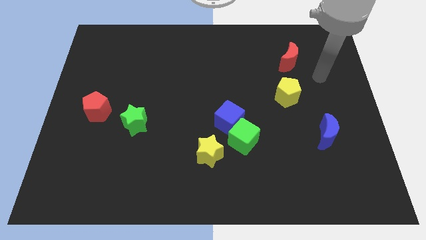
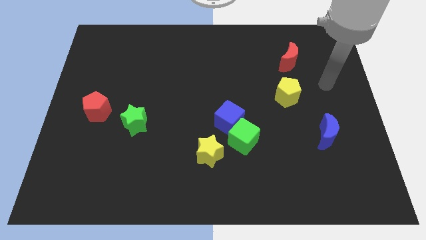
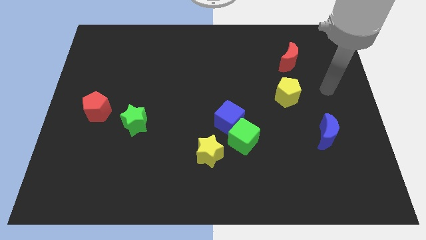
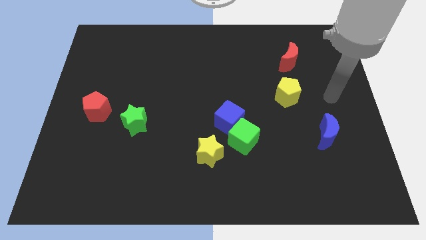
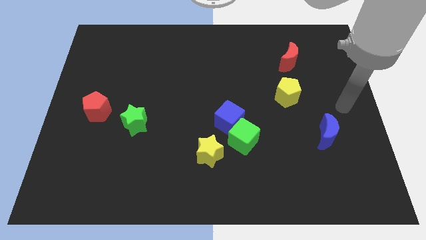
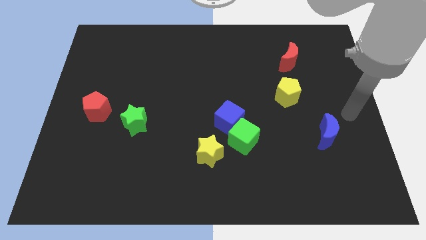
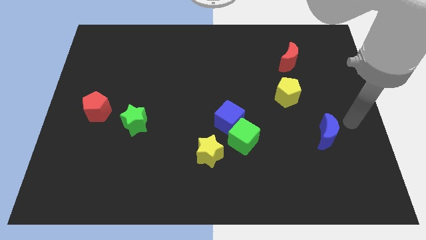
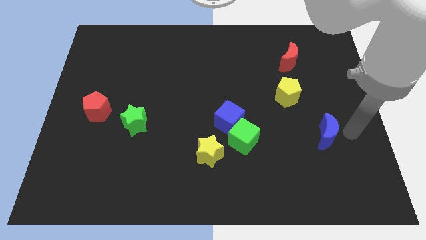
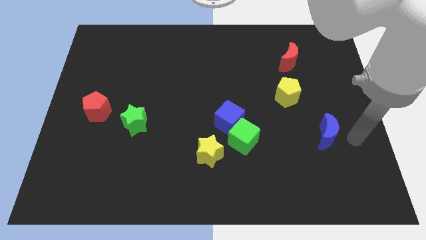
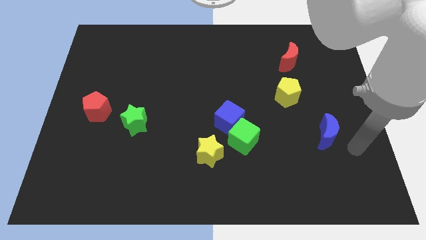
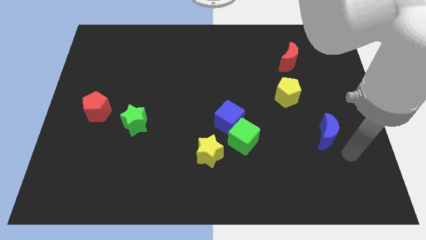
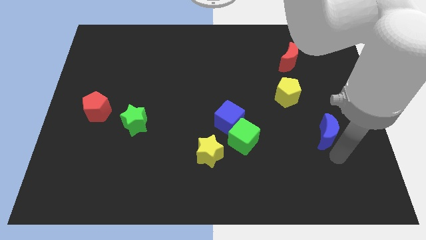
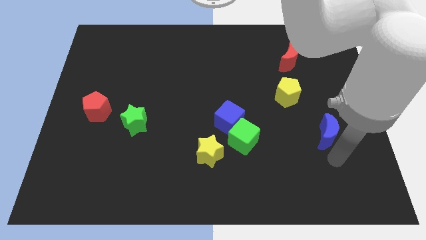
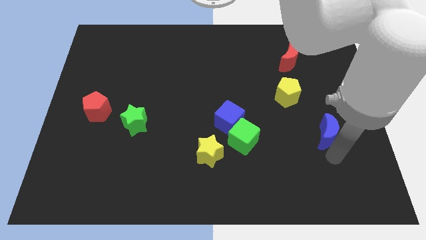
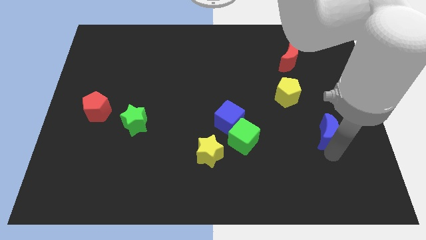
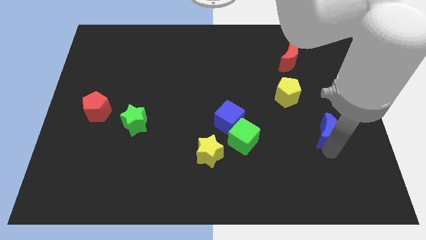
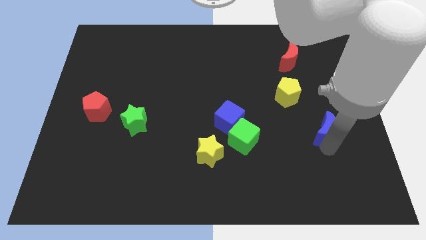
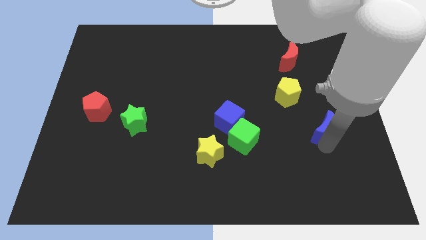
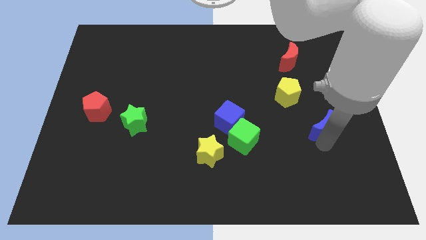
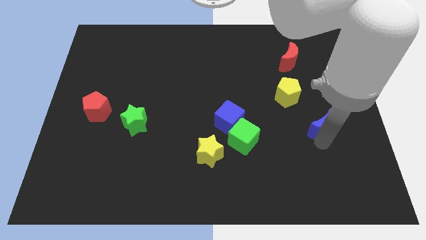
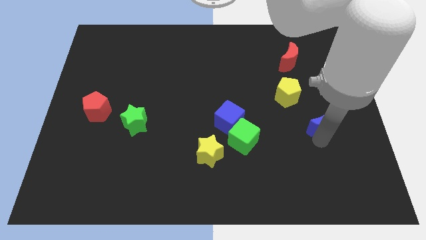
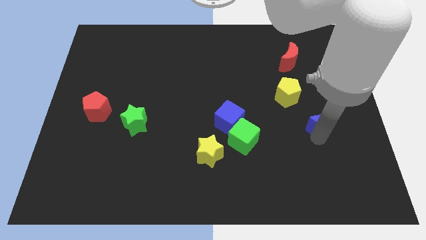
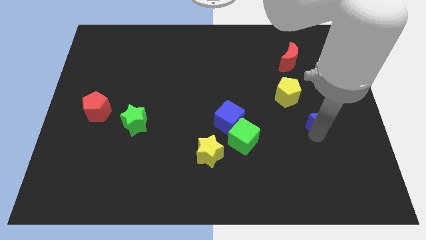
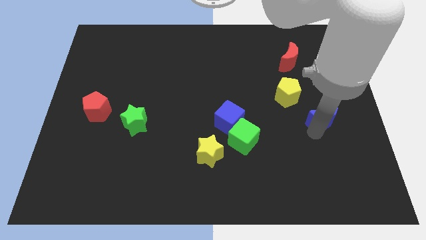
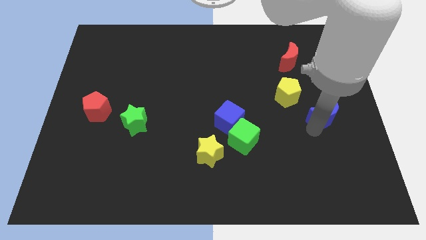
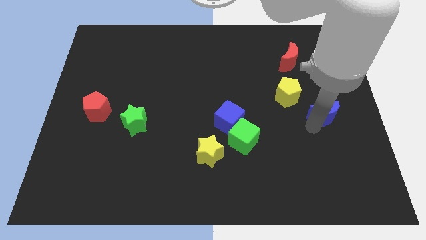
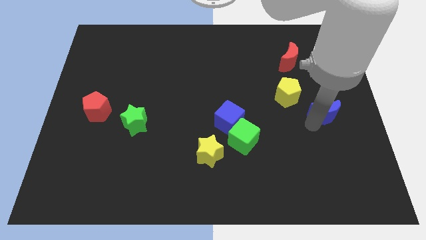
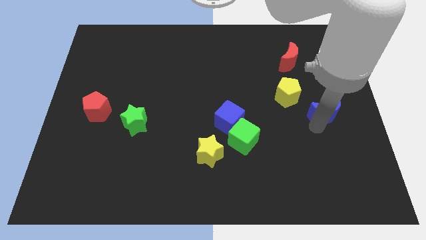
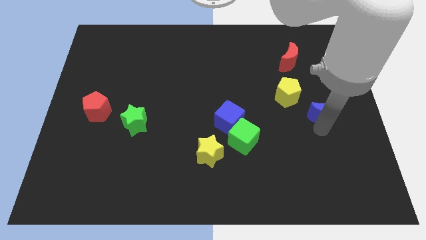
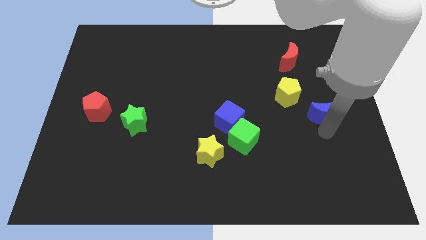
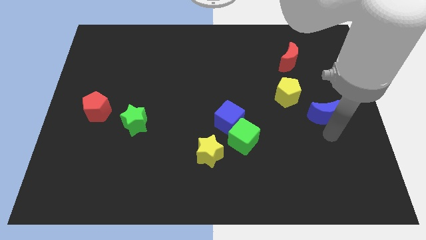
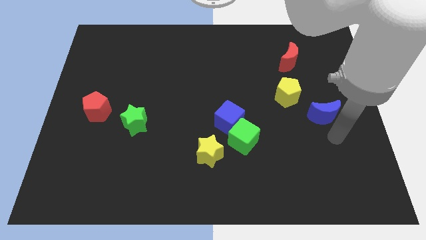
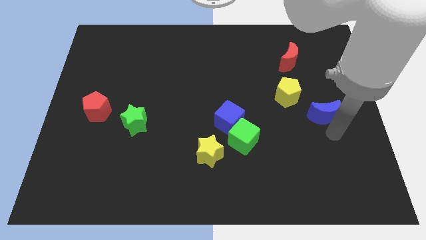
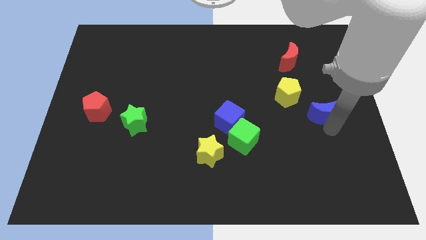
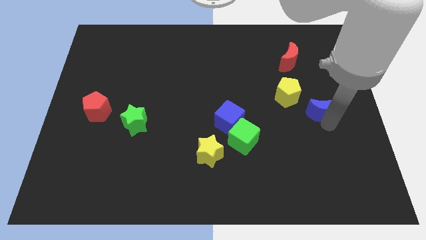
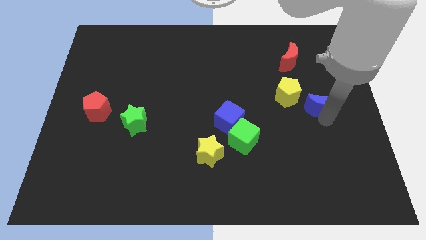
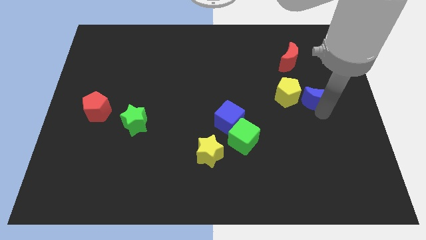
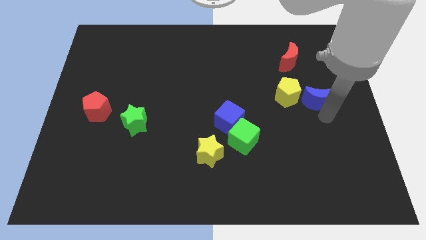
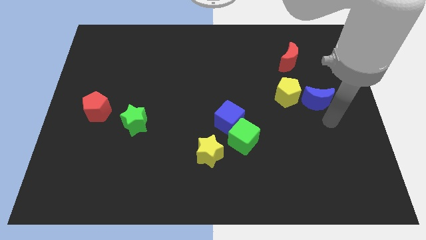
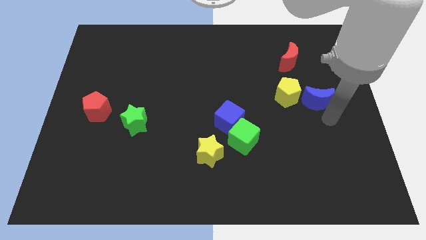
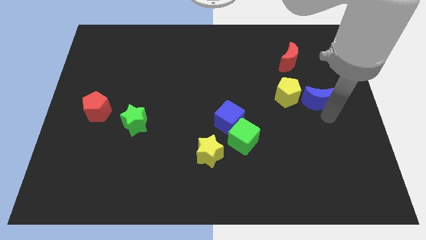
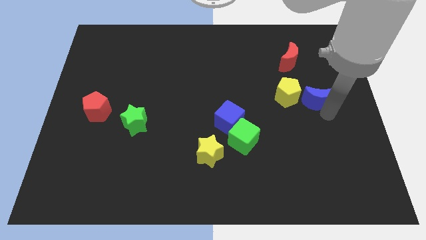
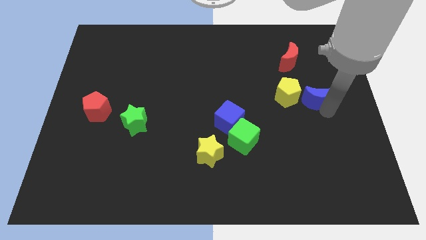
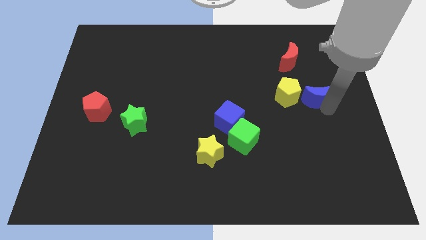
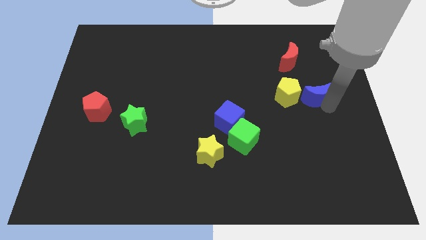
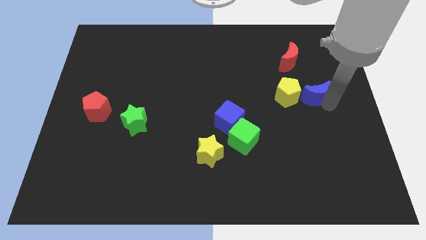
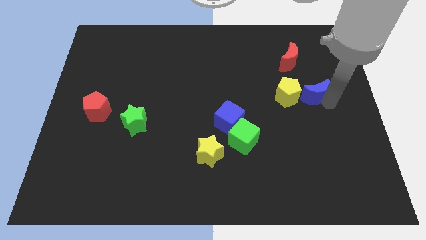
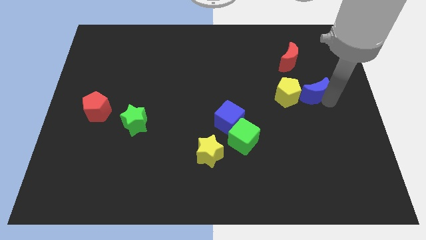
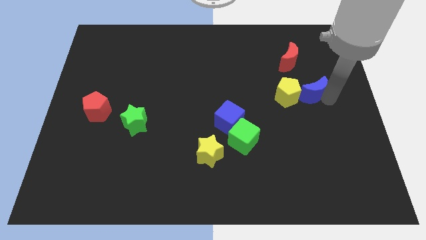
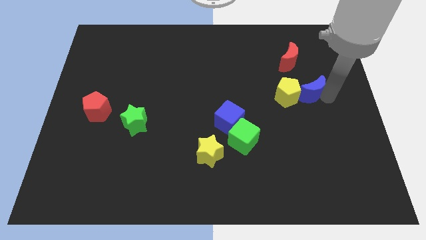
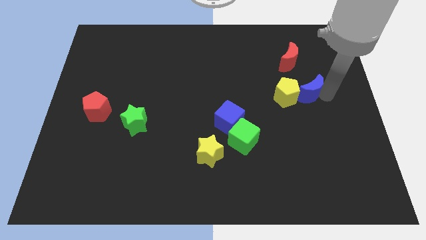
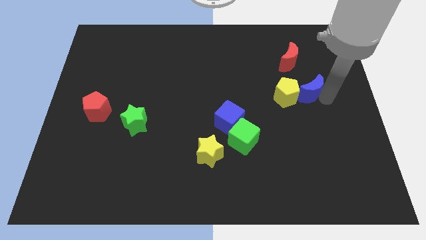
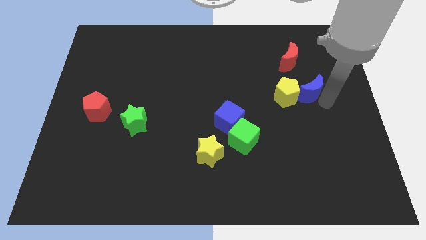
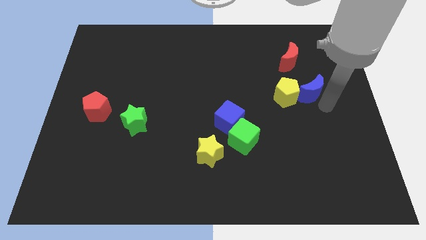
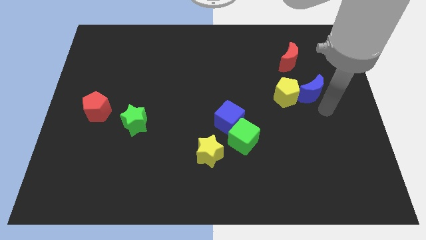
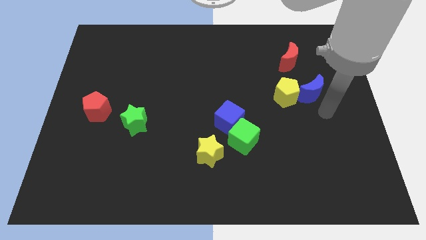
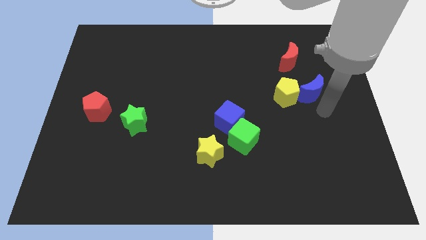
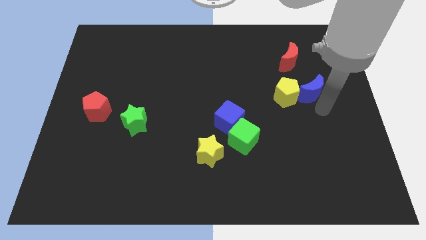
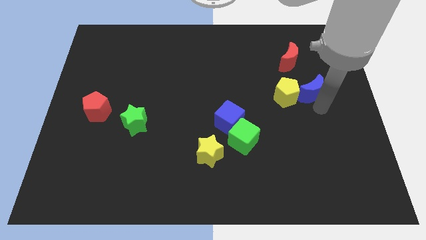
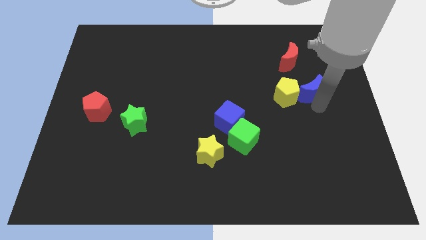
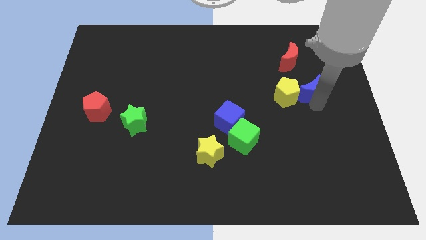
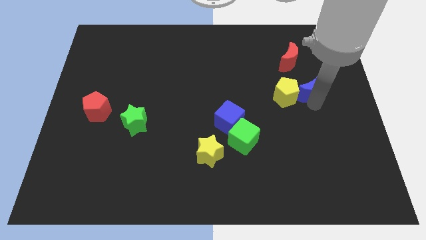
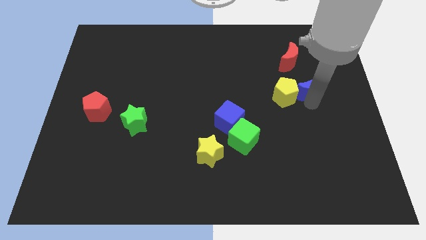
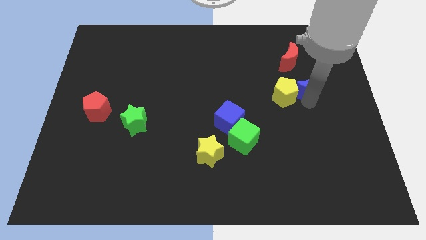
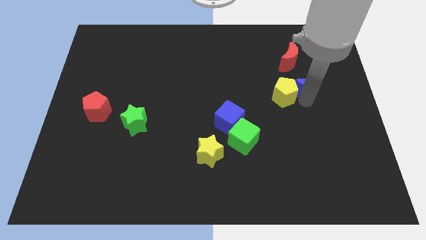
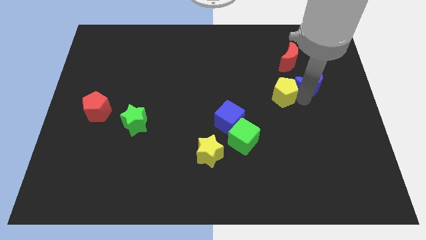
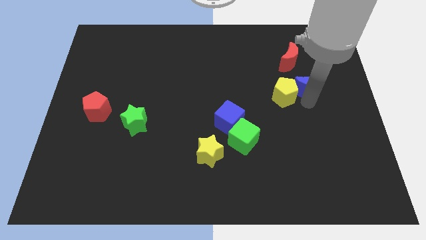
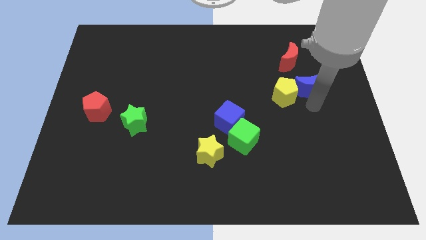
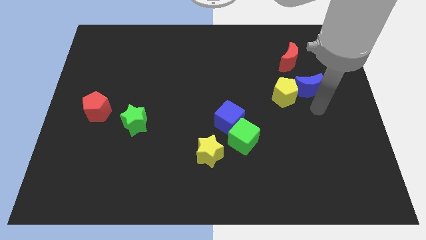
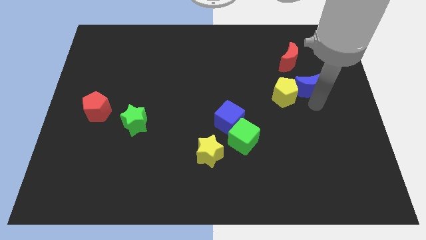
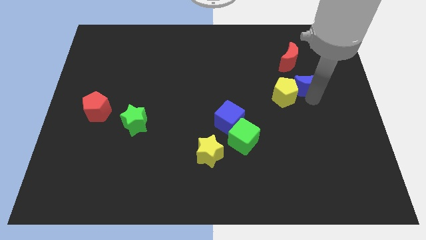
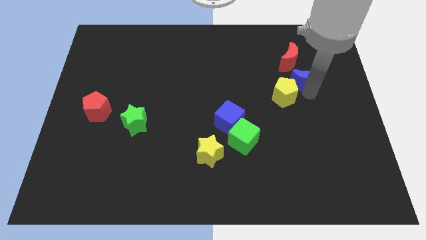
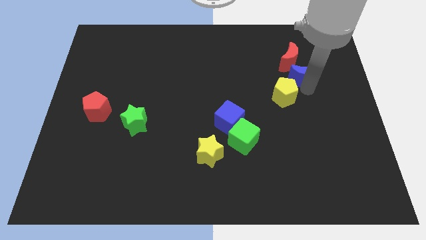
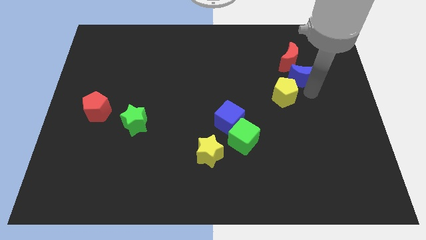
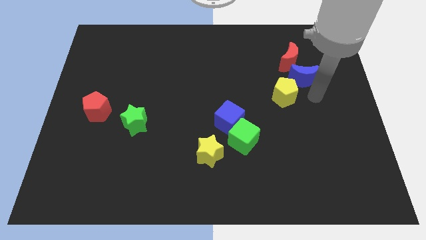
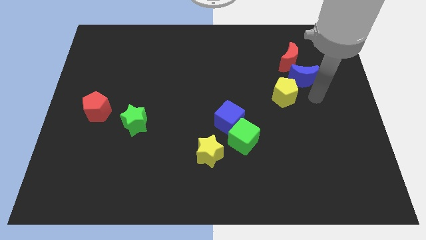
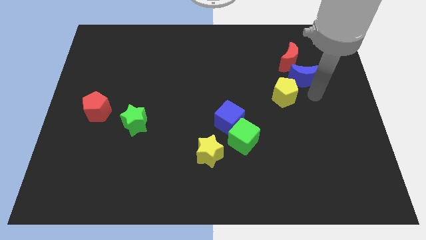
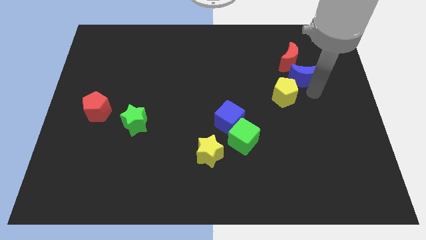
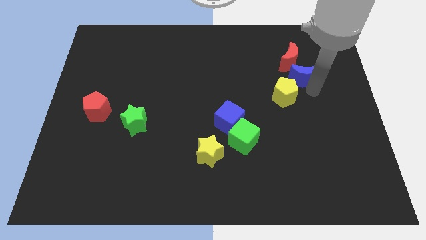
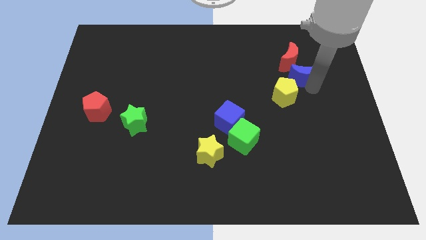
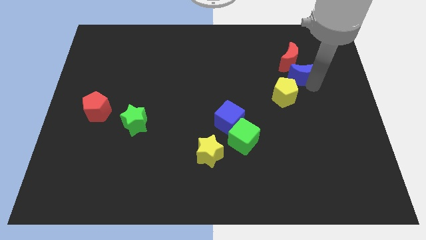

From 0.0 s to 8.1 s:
push the blue moon next to the red moon
